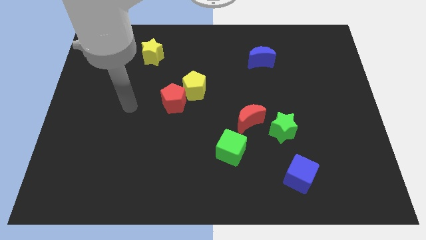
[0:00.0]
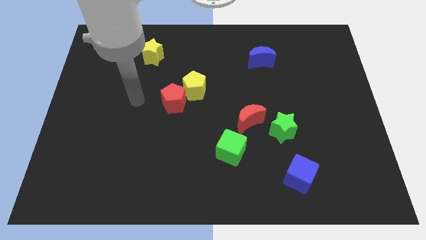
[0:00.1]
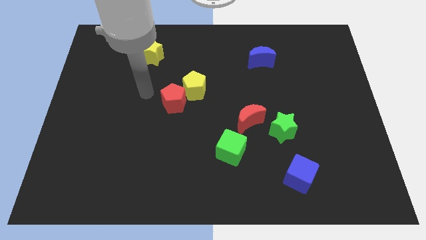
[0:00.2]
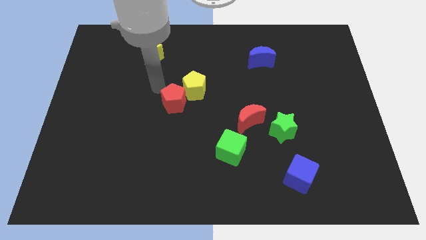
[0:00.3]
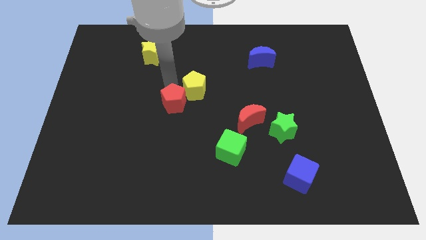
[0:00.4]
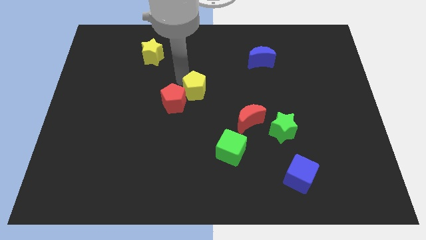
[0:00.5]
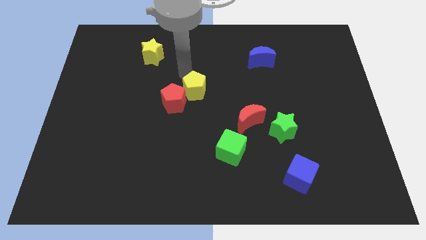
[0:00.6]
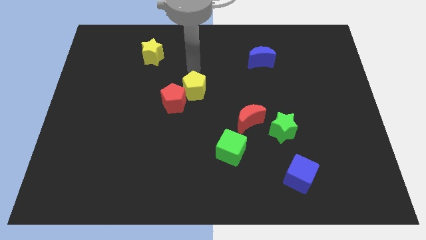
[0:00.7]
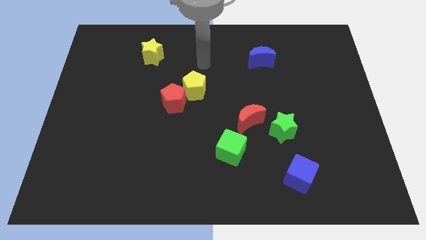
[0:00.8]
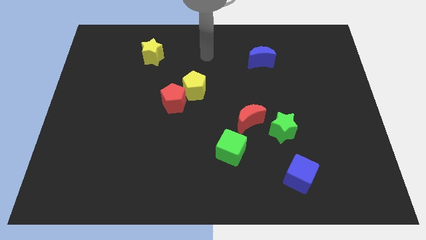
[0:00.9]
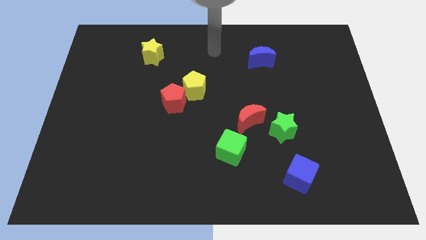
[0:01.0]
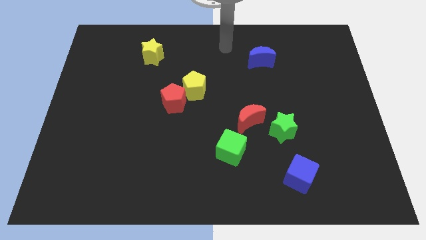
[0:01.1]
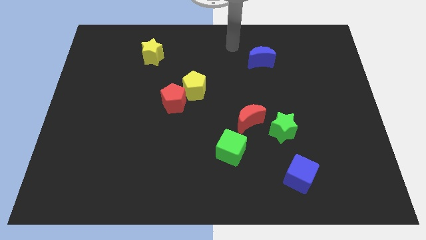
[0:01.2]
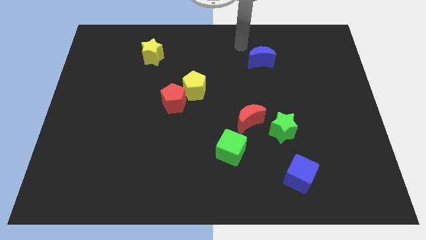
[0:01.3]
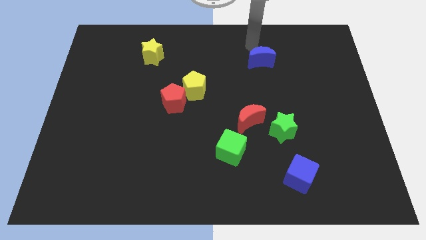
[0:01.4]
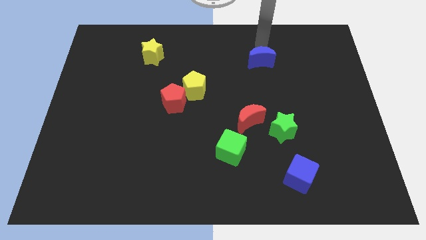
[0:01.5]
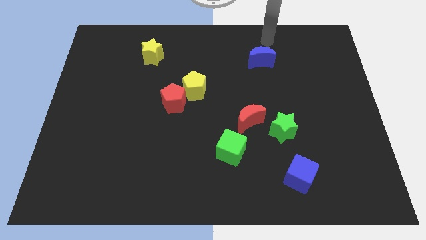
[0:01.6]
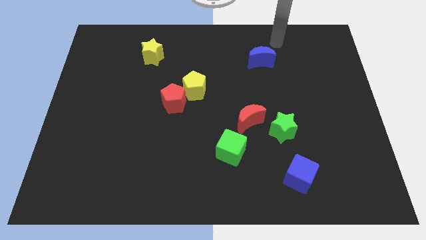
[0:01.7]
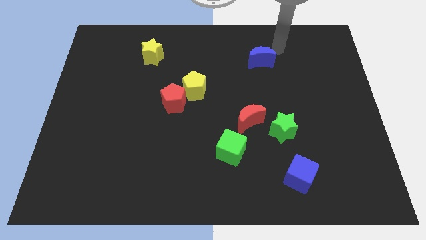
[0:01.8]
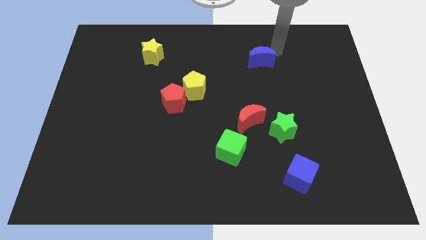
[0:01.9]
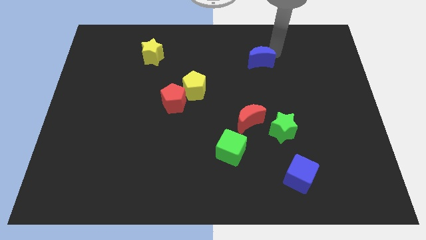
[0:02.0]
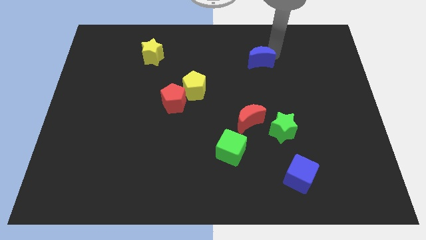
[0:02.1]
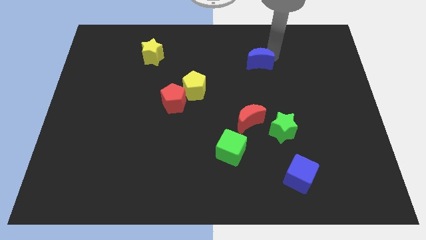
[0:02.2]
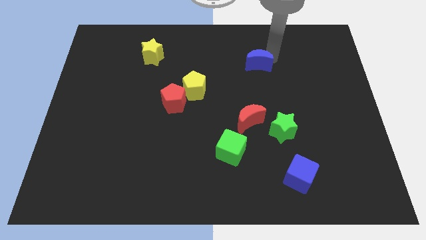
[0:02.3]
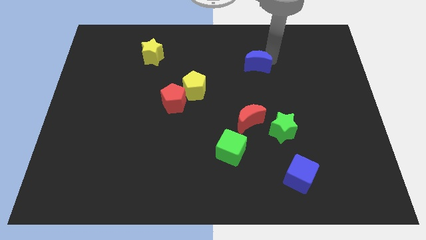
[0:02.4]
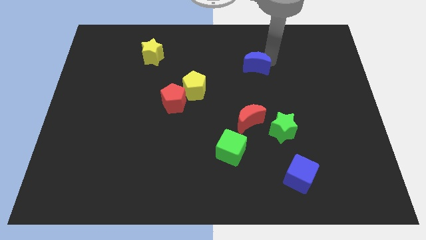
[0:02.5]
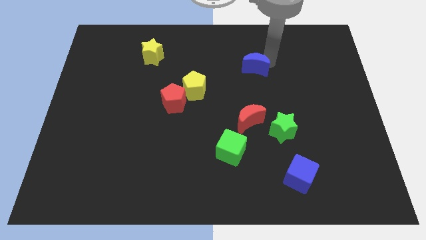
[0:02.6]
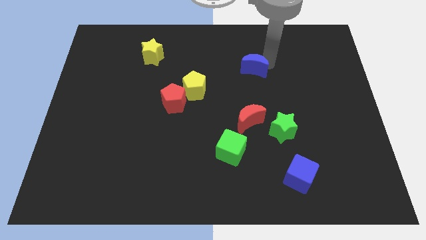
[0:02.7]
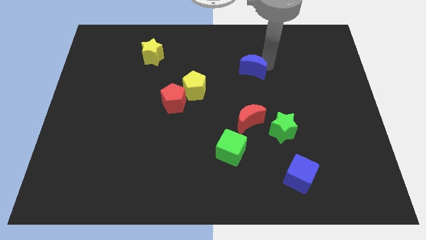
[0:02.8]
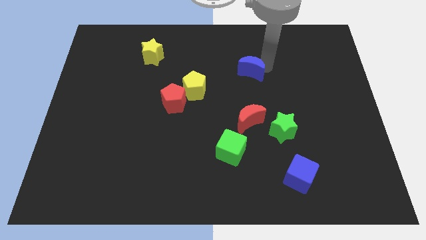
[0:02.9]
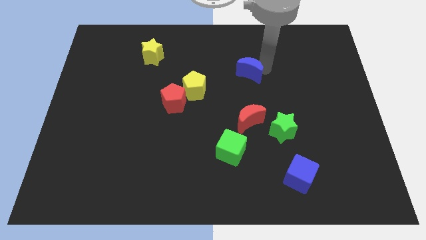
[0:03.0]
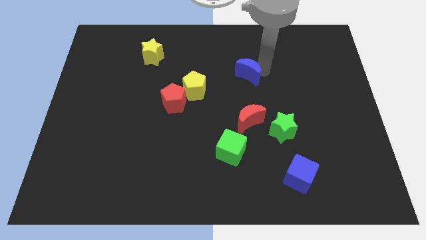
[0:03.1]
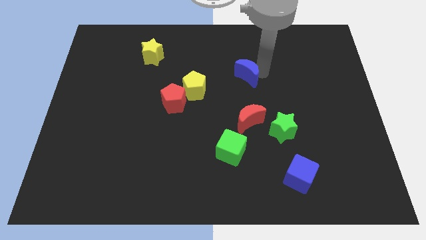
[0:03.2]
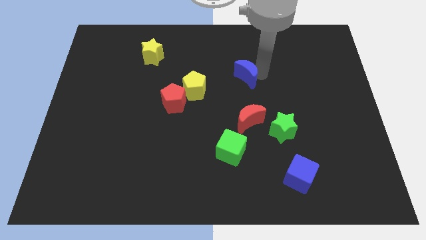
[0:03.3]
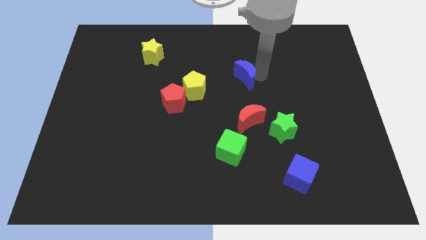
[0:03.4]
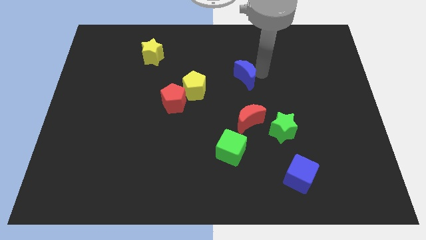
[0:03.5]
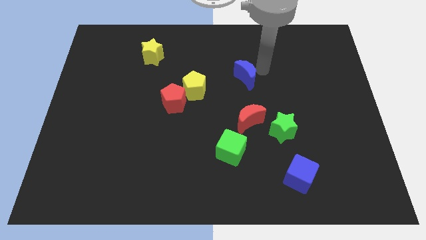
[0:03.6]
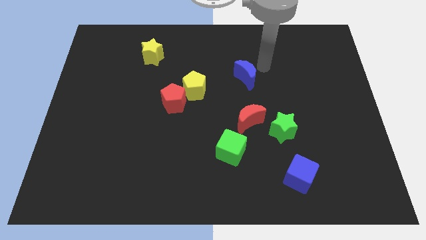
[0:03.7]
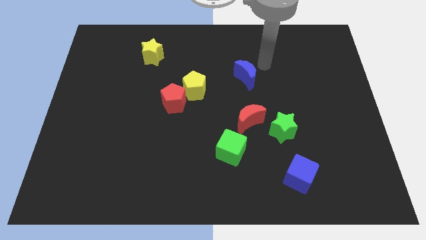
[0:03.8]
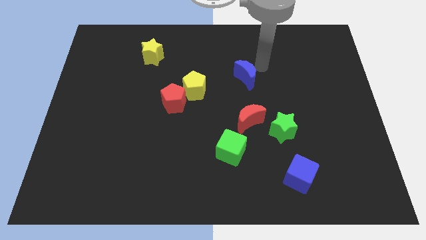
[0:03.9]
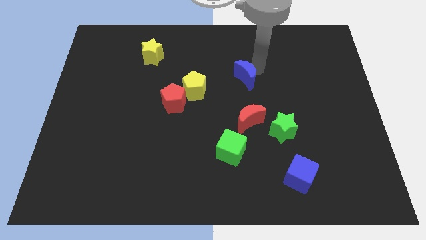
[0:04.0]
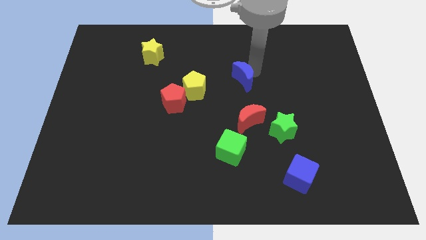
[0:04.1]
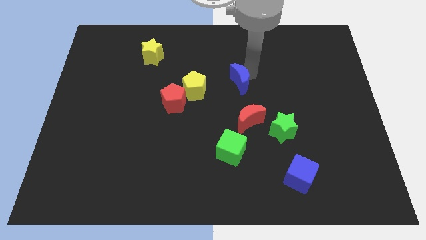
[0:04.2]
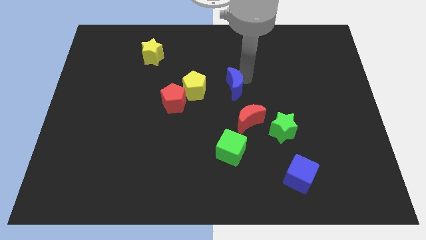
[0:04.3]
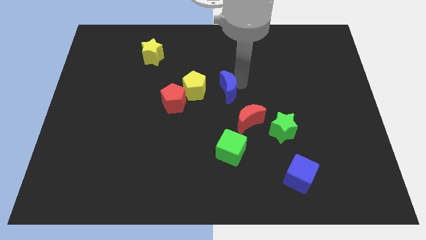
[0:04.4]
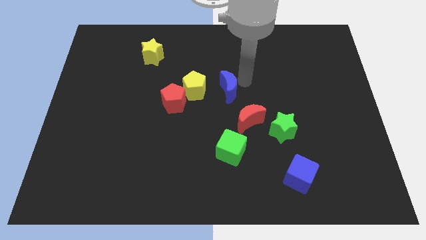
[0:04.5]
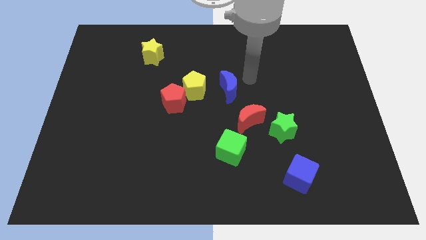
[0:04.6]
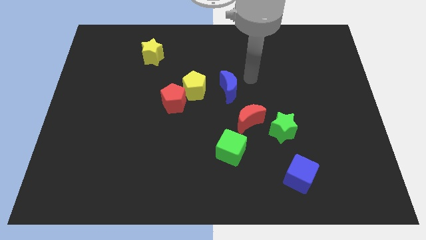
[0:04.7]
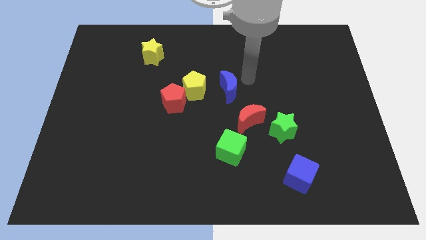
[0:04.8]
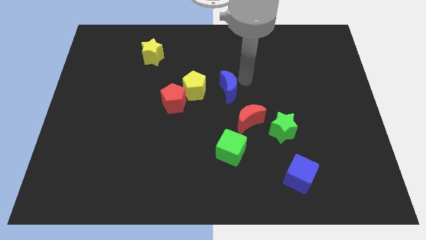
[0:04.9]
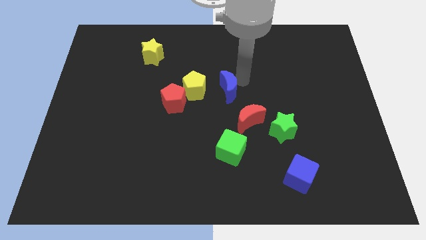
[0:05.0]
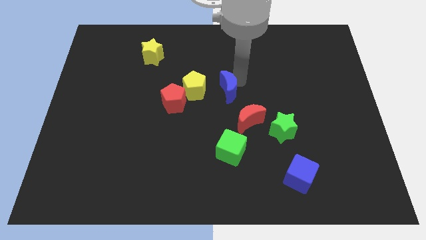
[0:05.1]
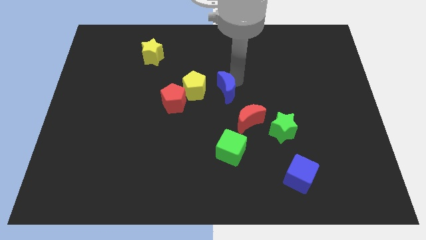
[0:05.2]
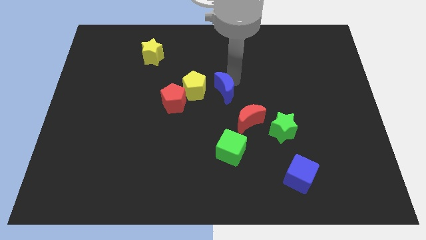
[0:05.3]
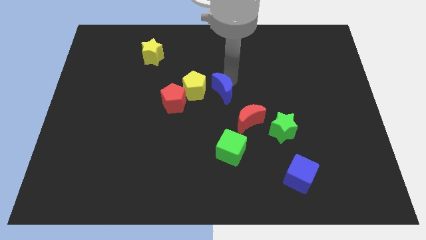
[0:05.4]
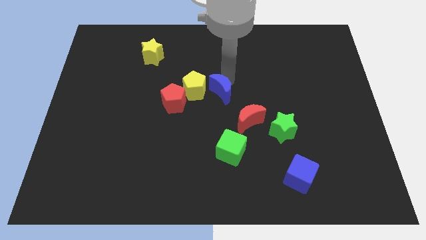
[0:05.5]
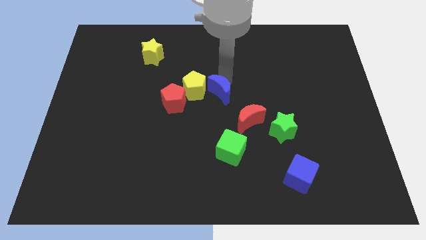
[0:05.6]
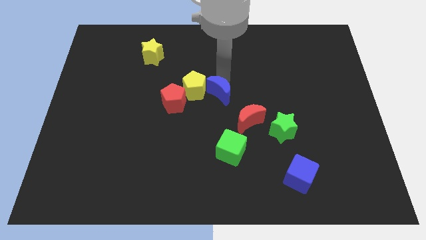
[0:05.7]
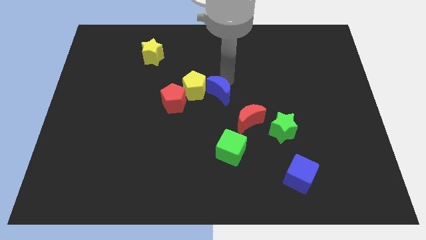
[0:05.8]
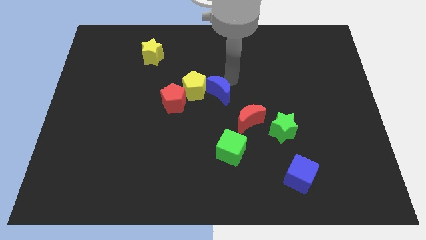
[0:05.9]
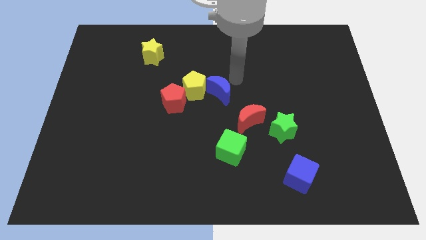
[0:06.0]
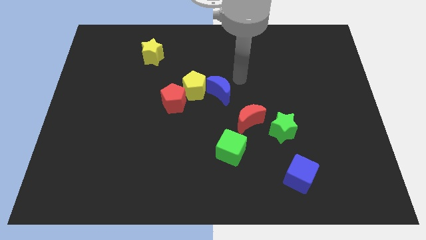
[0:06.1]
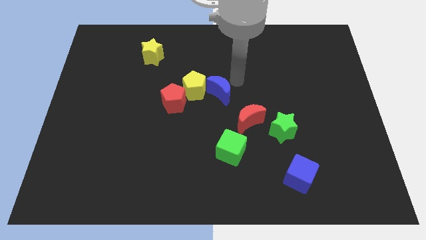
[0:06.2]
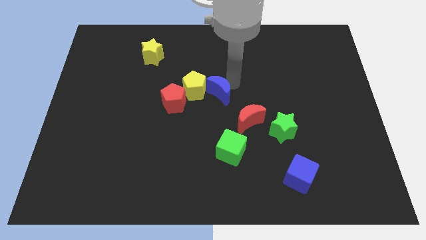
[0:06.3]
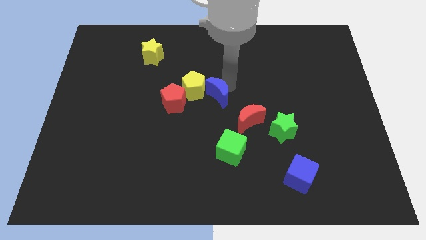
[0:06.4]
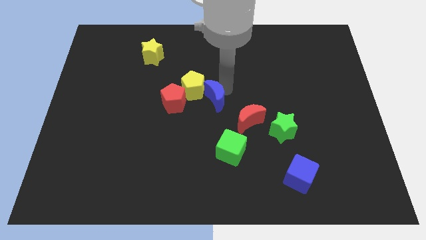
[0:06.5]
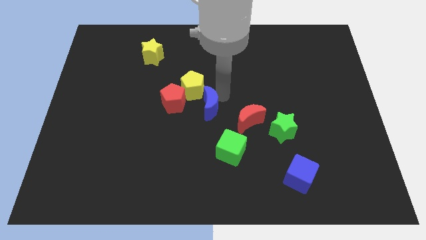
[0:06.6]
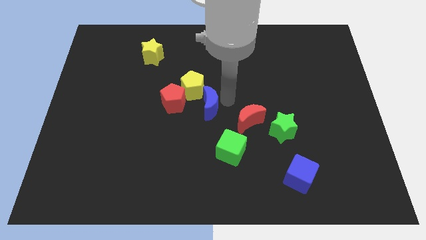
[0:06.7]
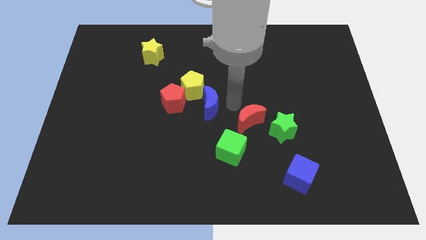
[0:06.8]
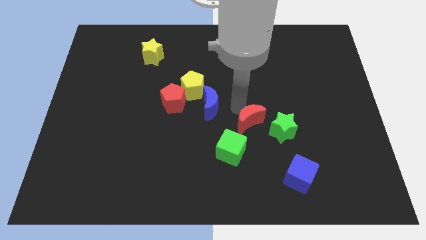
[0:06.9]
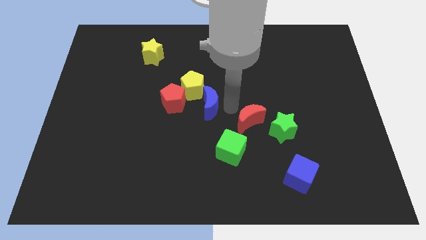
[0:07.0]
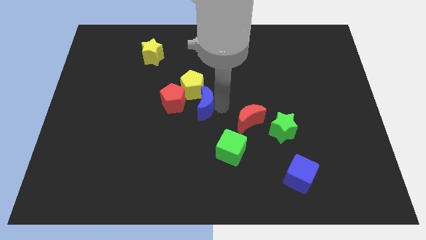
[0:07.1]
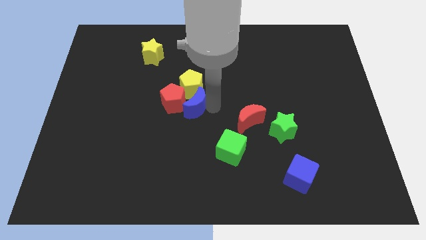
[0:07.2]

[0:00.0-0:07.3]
move the blue moon close to the red pentagon
